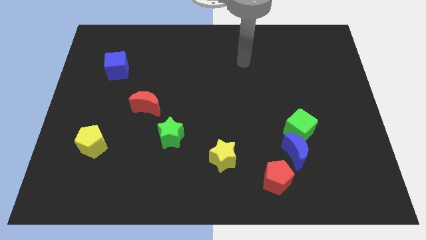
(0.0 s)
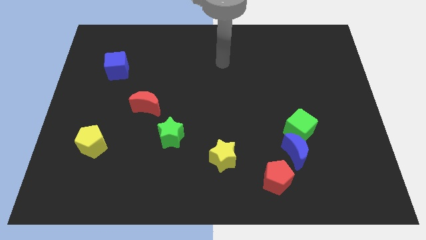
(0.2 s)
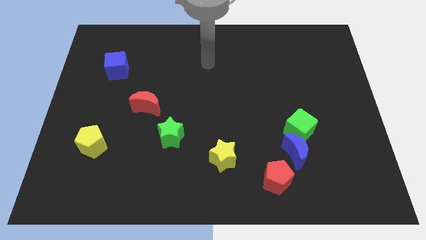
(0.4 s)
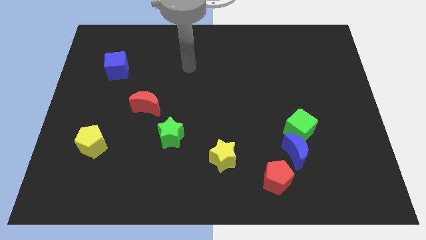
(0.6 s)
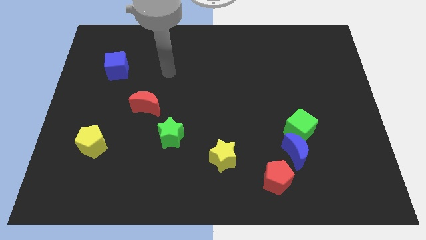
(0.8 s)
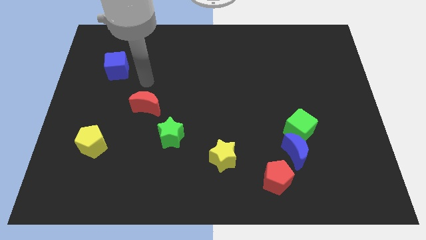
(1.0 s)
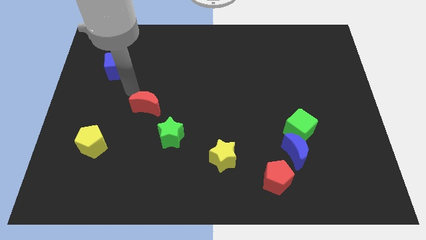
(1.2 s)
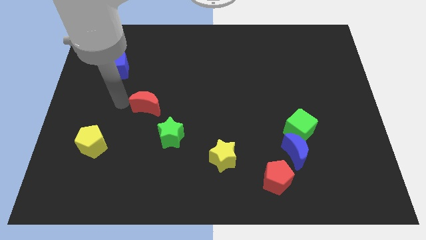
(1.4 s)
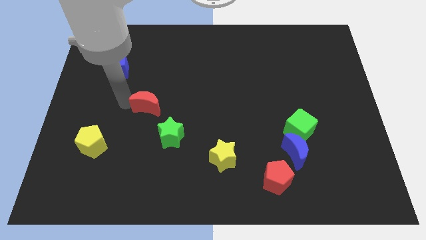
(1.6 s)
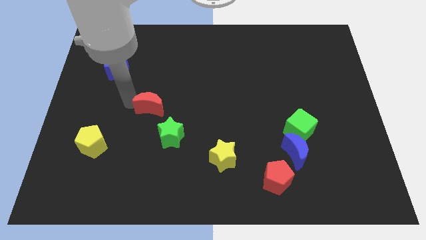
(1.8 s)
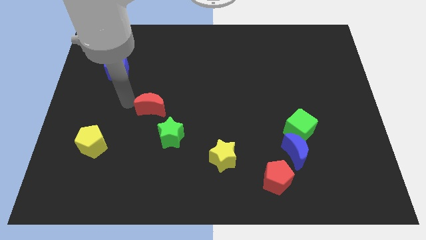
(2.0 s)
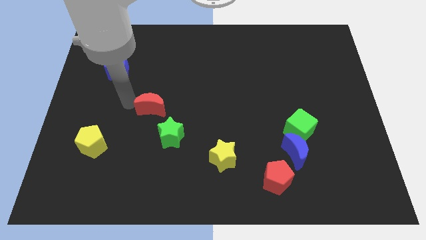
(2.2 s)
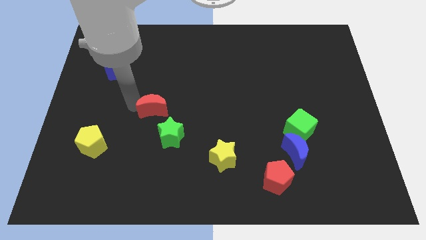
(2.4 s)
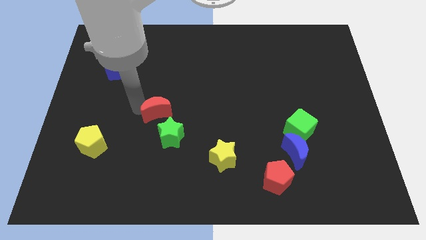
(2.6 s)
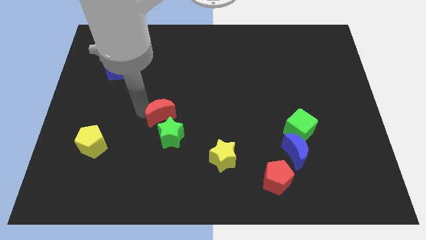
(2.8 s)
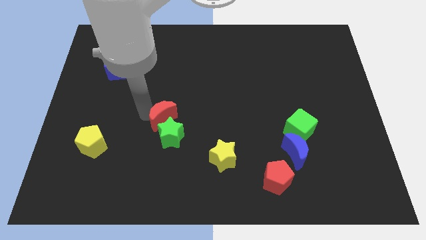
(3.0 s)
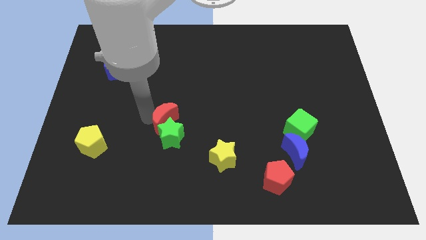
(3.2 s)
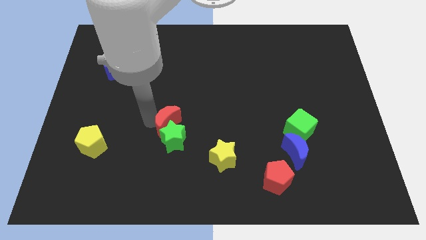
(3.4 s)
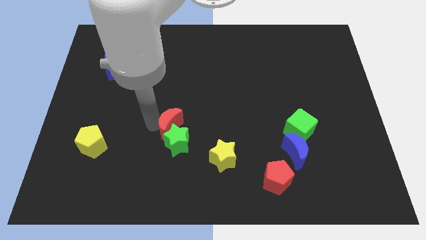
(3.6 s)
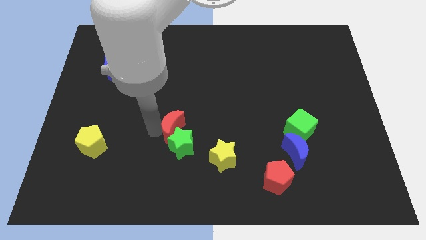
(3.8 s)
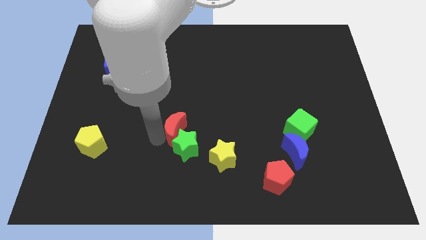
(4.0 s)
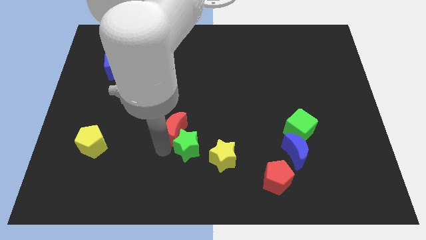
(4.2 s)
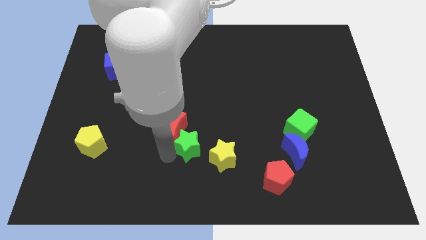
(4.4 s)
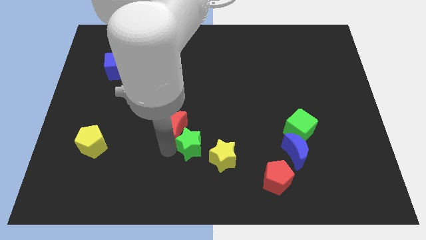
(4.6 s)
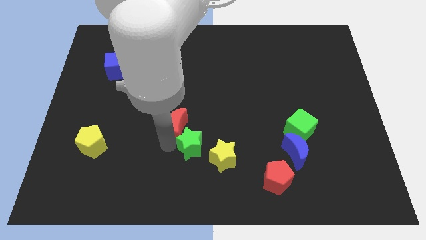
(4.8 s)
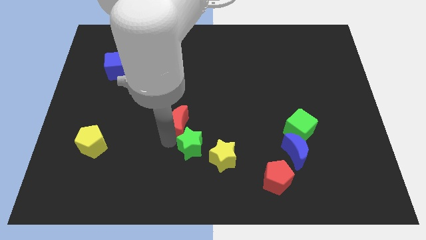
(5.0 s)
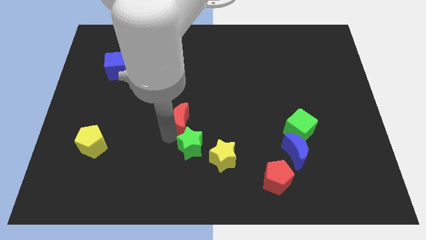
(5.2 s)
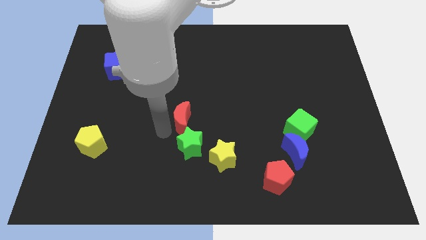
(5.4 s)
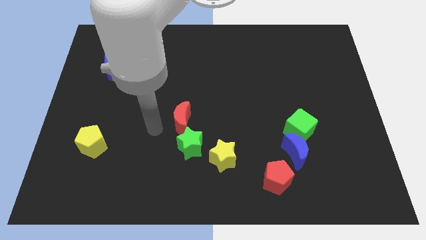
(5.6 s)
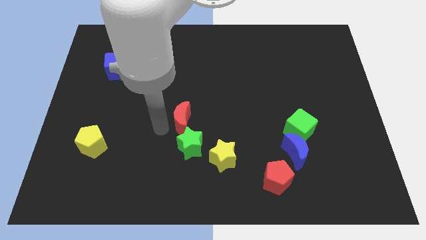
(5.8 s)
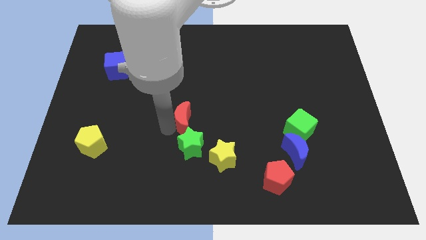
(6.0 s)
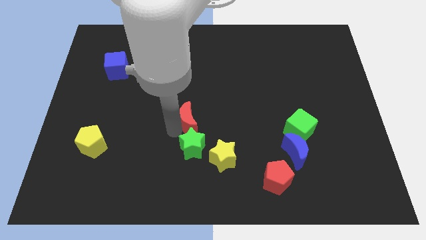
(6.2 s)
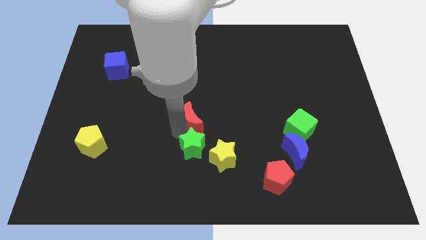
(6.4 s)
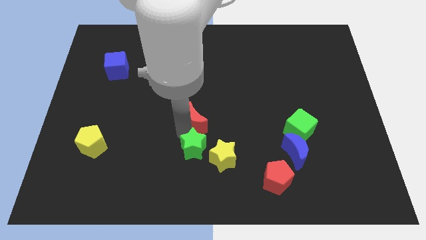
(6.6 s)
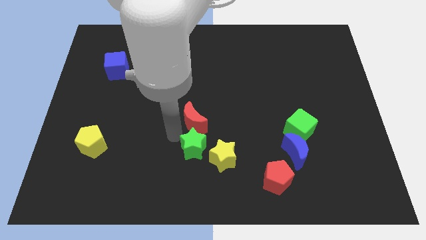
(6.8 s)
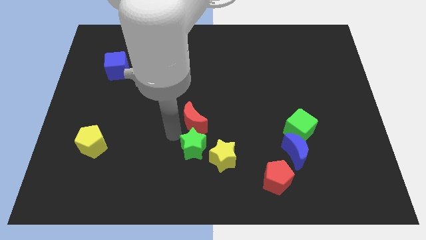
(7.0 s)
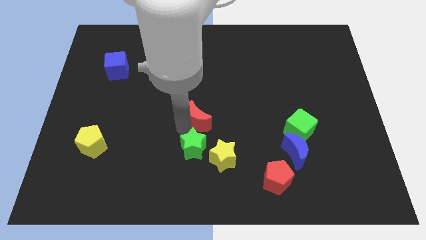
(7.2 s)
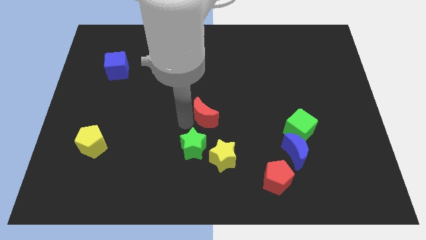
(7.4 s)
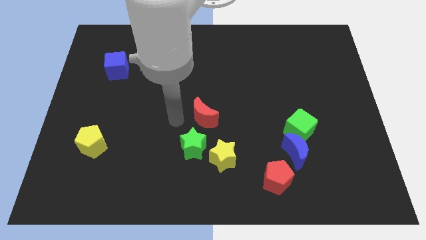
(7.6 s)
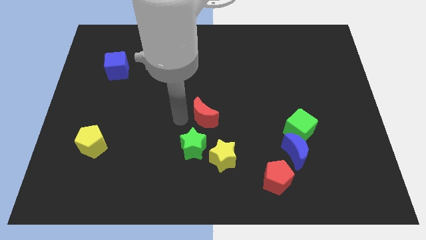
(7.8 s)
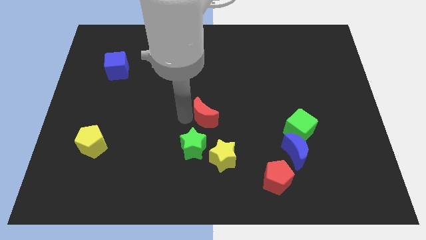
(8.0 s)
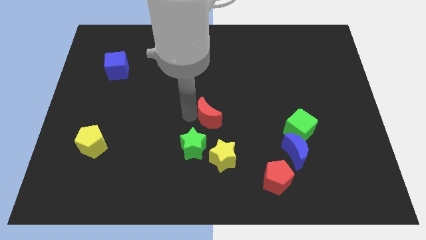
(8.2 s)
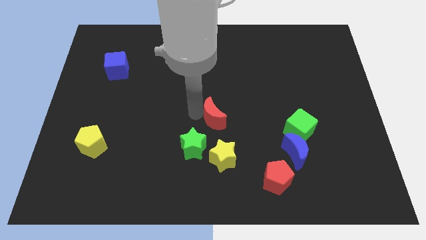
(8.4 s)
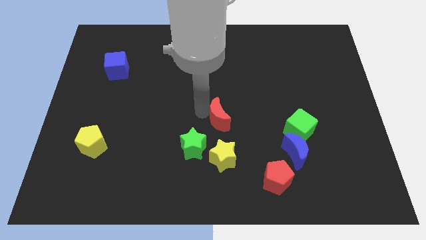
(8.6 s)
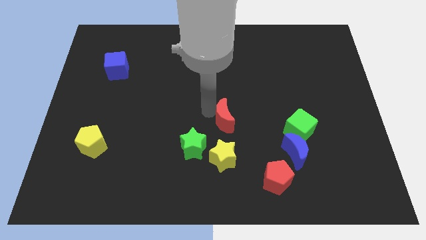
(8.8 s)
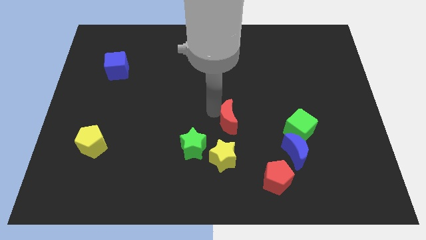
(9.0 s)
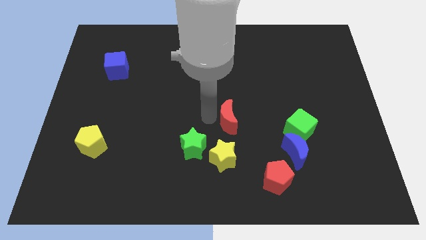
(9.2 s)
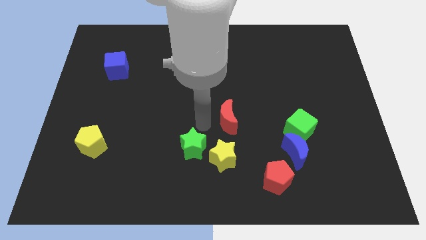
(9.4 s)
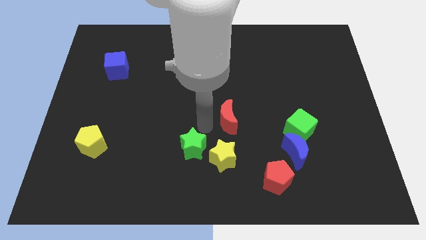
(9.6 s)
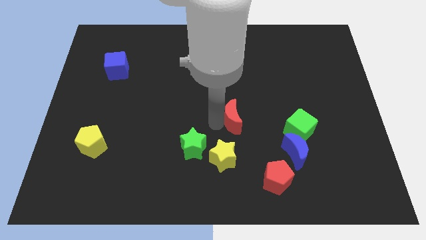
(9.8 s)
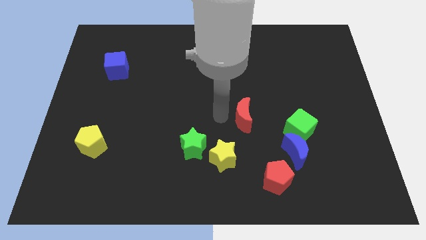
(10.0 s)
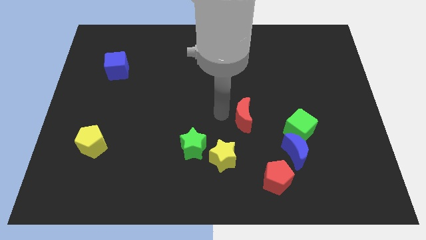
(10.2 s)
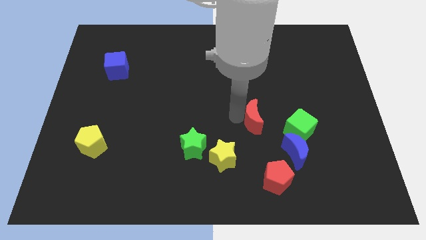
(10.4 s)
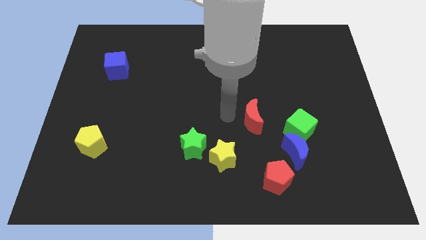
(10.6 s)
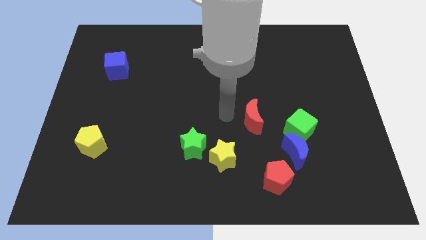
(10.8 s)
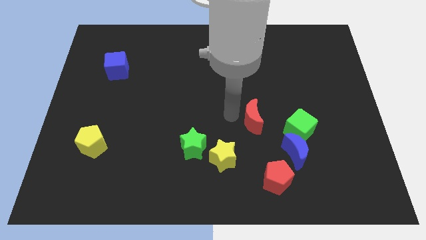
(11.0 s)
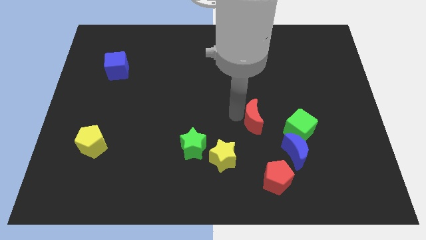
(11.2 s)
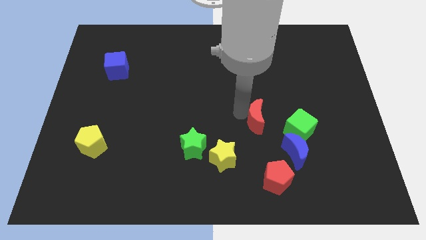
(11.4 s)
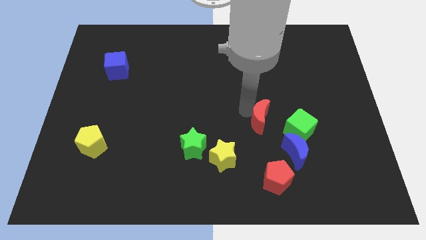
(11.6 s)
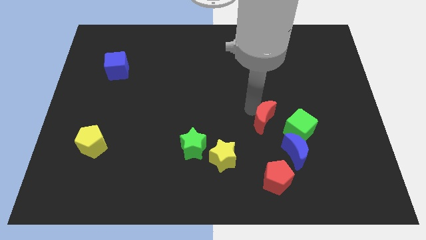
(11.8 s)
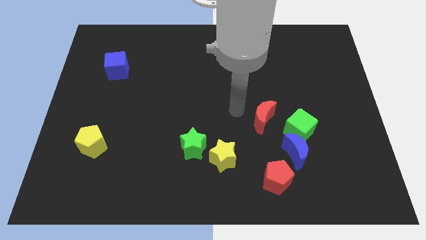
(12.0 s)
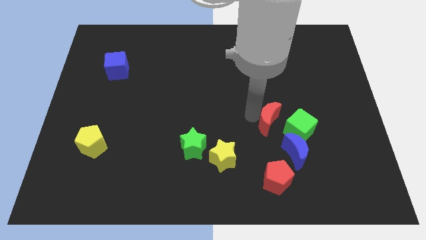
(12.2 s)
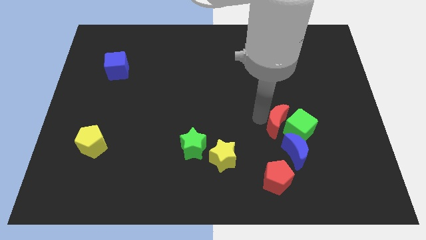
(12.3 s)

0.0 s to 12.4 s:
put the red moon towards the green cube

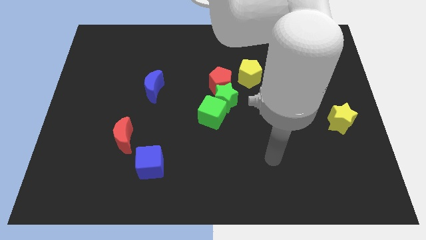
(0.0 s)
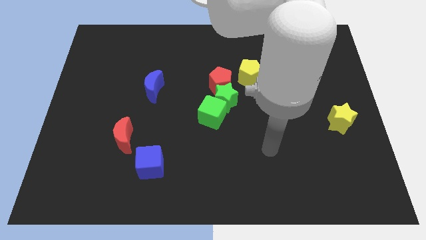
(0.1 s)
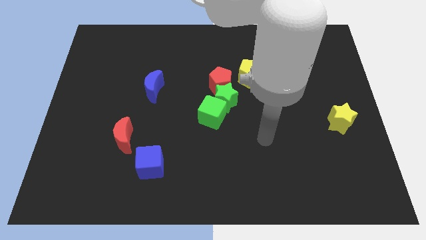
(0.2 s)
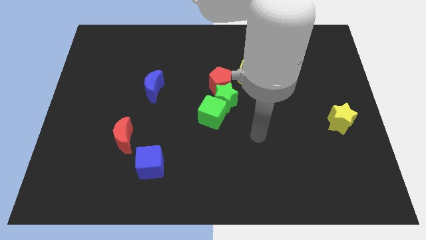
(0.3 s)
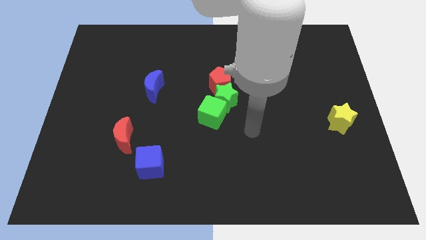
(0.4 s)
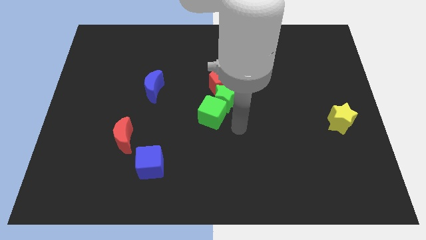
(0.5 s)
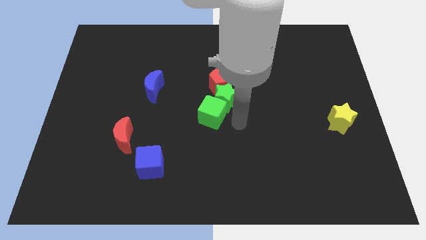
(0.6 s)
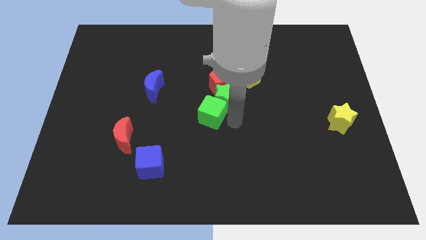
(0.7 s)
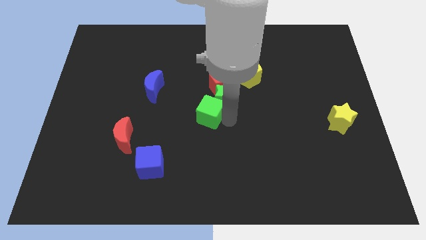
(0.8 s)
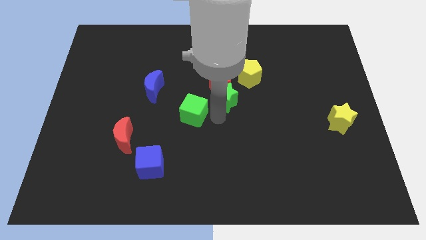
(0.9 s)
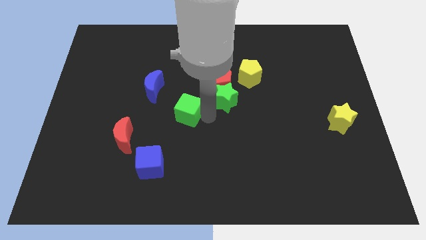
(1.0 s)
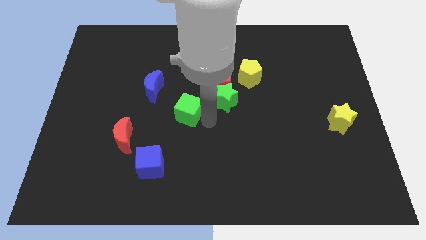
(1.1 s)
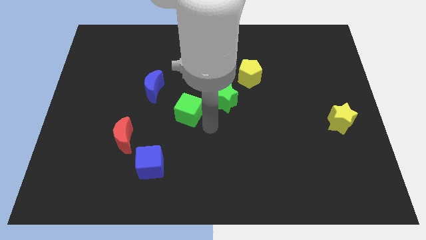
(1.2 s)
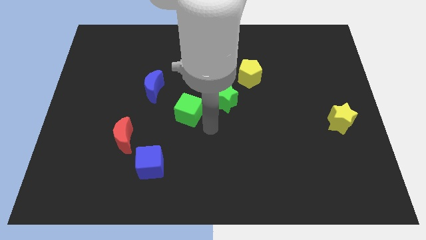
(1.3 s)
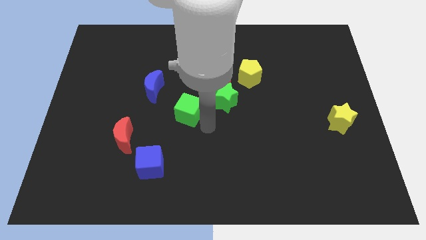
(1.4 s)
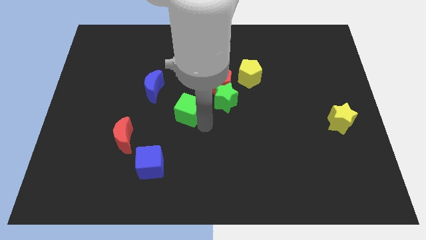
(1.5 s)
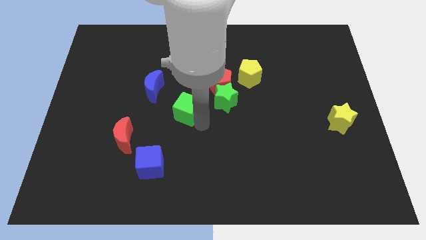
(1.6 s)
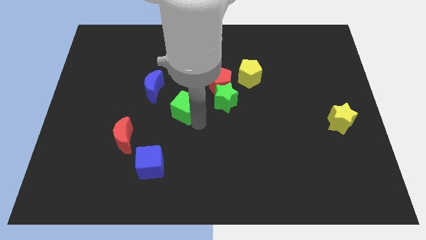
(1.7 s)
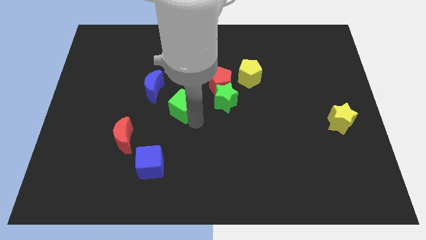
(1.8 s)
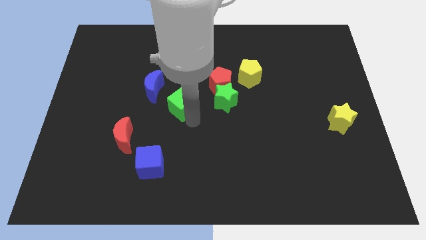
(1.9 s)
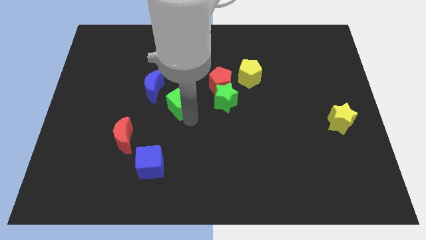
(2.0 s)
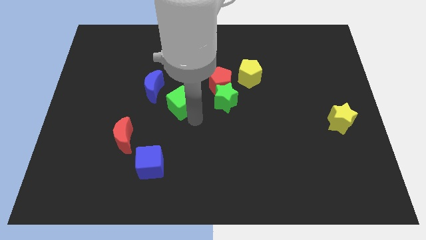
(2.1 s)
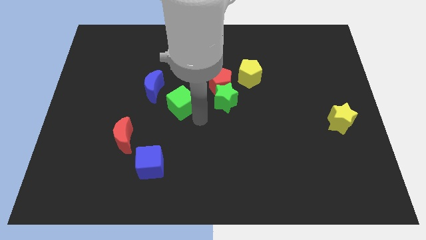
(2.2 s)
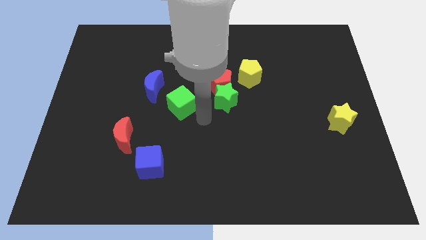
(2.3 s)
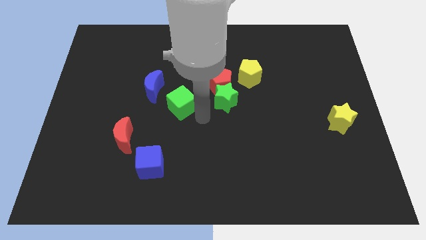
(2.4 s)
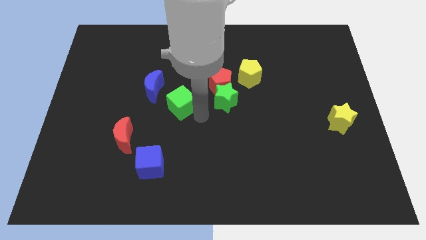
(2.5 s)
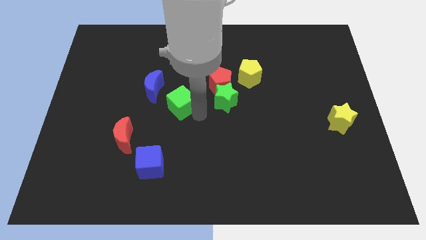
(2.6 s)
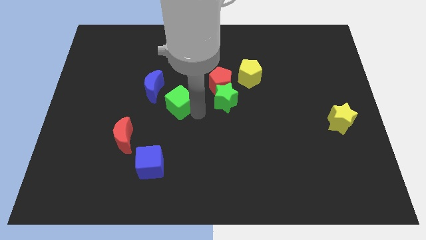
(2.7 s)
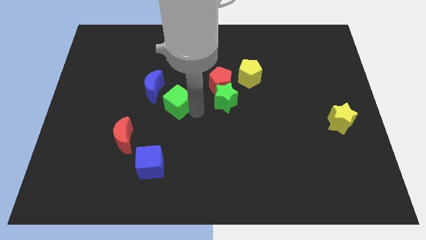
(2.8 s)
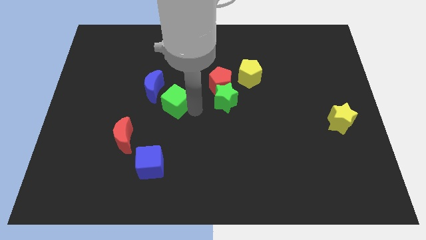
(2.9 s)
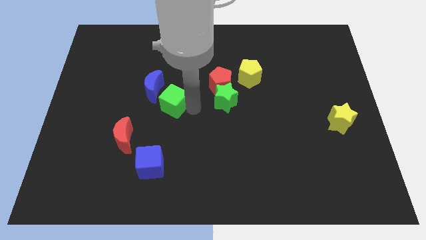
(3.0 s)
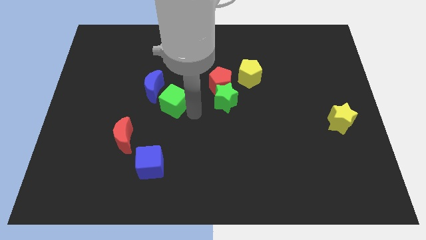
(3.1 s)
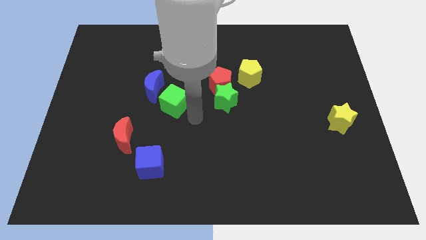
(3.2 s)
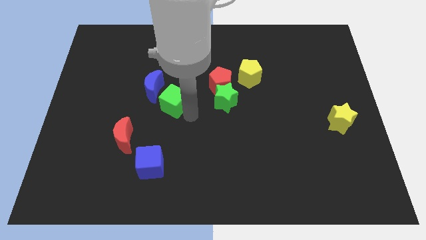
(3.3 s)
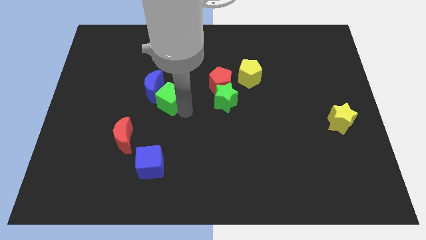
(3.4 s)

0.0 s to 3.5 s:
put the green cube close to the blue moon
